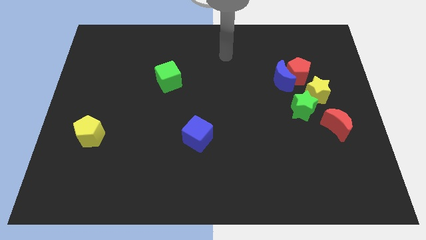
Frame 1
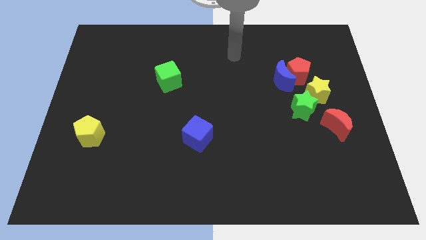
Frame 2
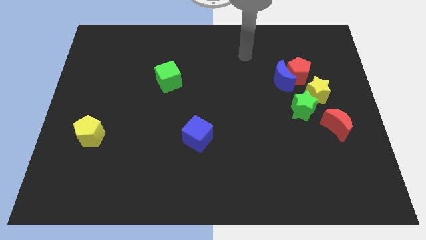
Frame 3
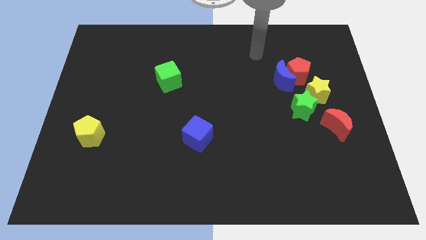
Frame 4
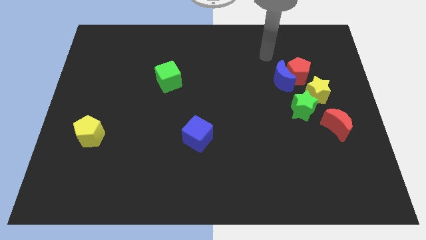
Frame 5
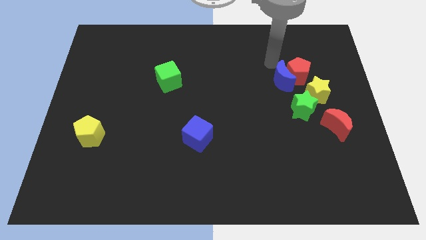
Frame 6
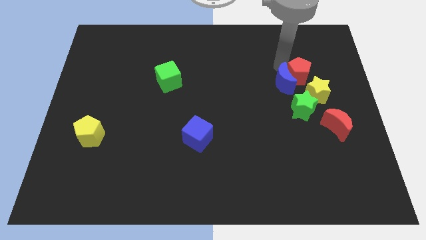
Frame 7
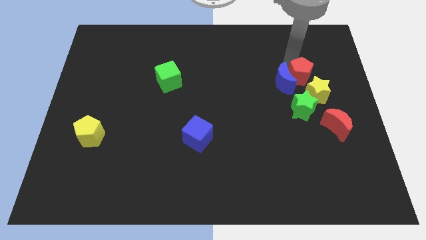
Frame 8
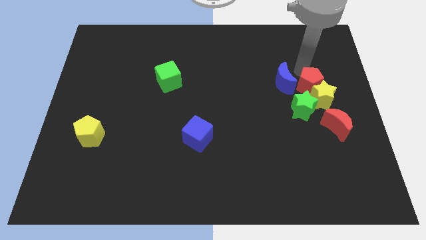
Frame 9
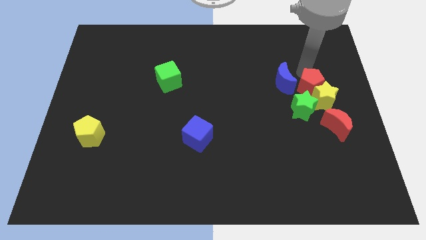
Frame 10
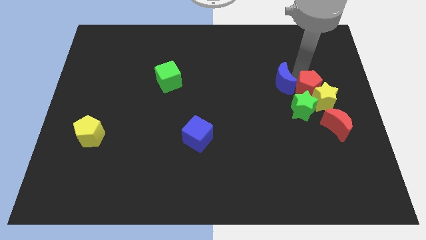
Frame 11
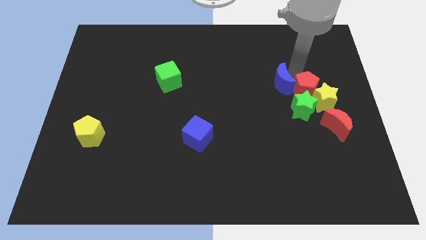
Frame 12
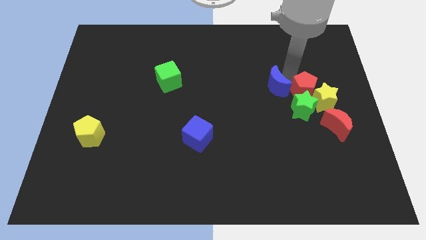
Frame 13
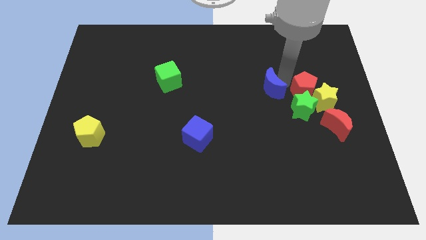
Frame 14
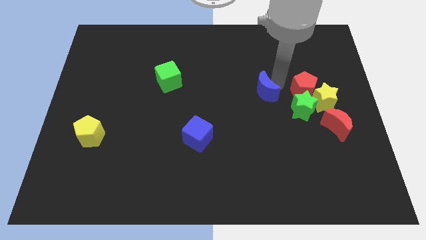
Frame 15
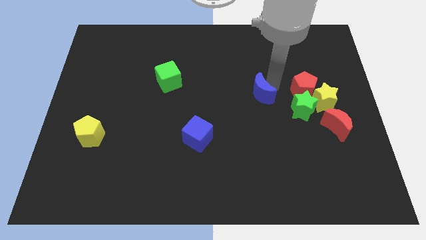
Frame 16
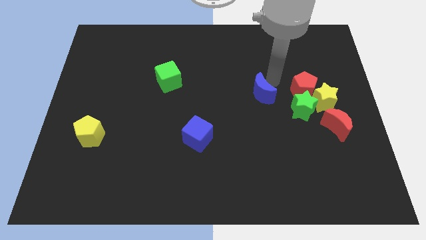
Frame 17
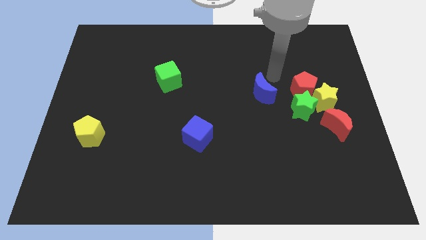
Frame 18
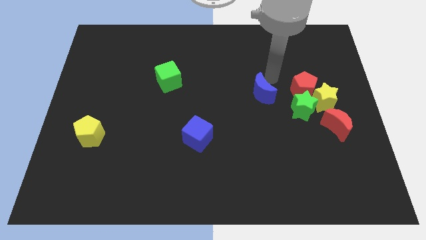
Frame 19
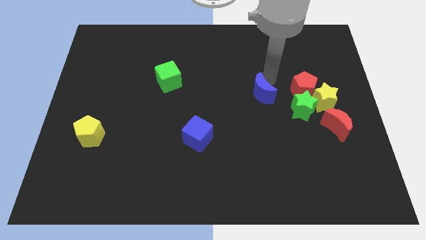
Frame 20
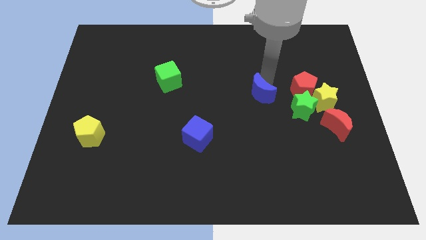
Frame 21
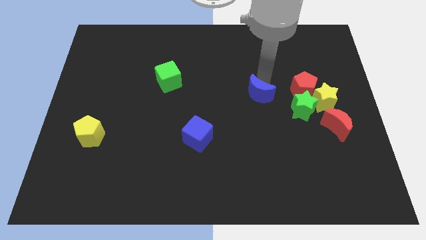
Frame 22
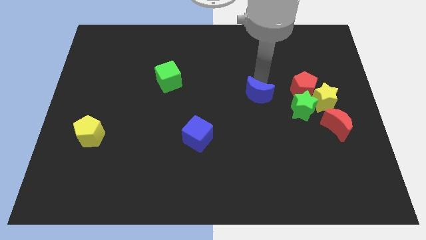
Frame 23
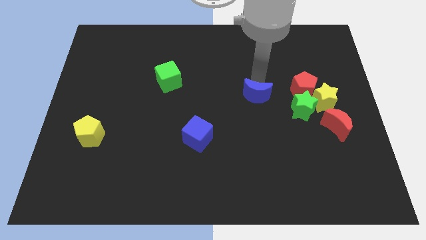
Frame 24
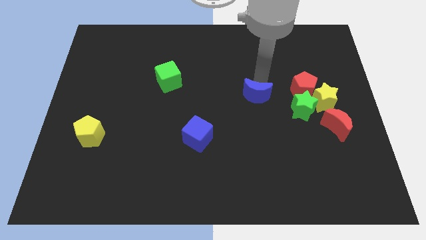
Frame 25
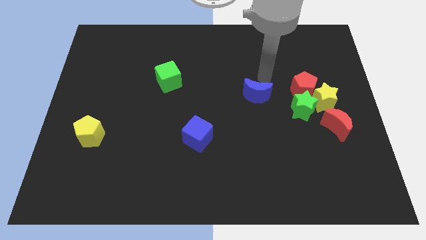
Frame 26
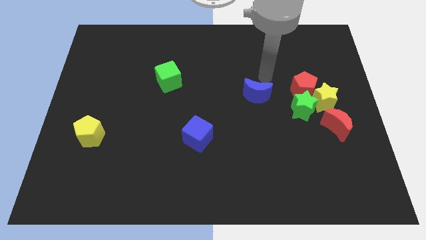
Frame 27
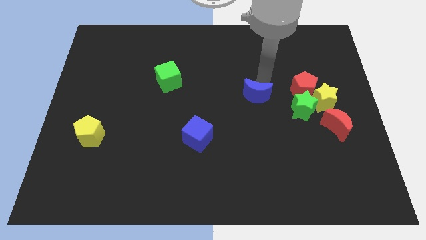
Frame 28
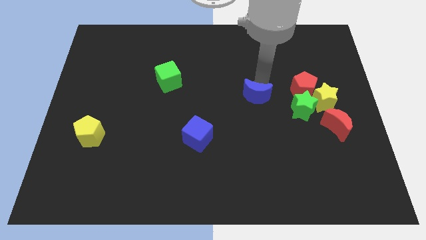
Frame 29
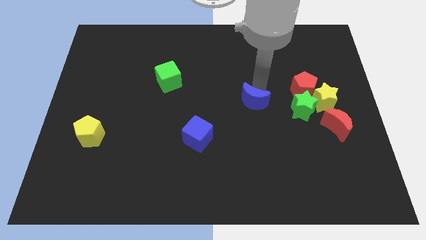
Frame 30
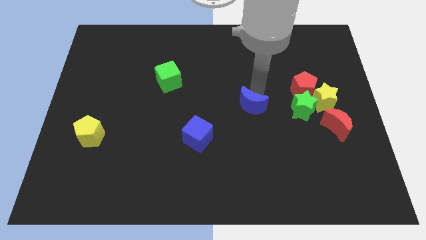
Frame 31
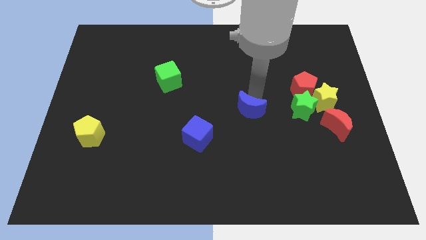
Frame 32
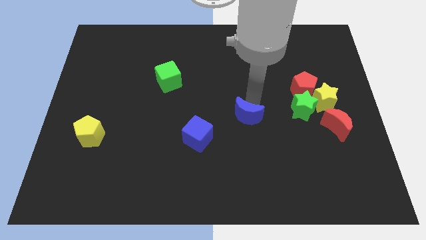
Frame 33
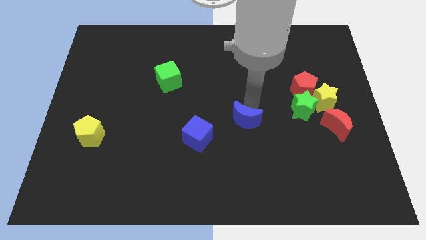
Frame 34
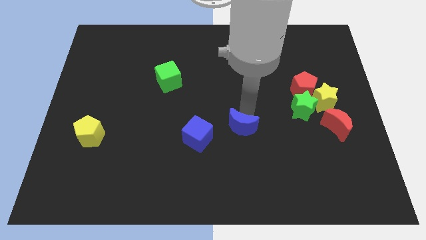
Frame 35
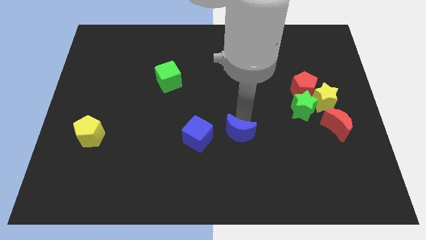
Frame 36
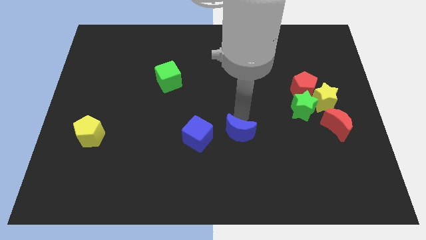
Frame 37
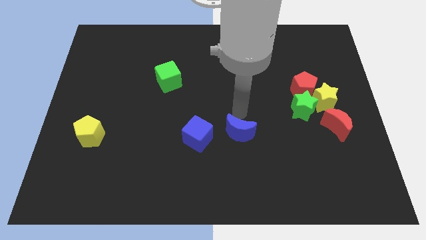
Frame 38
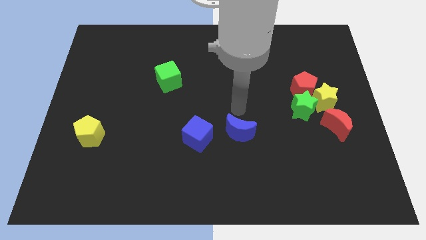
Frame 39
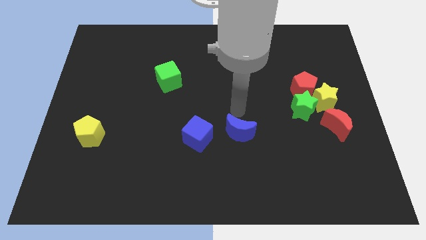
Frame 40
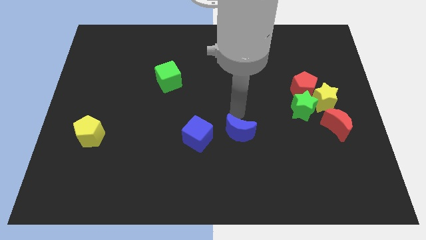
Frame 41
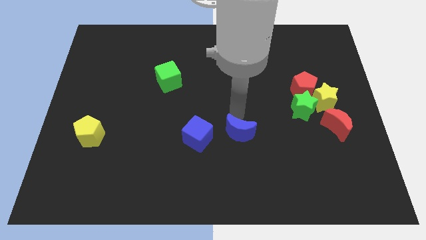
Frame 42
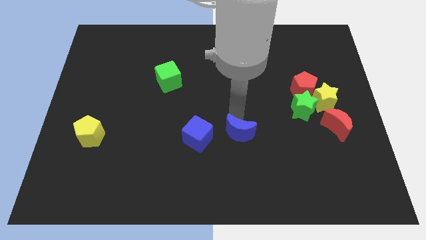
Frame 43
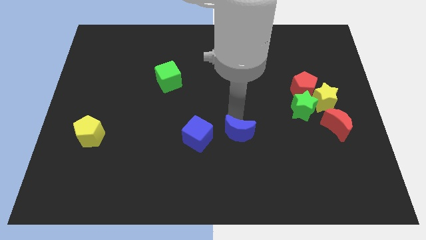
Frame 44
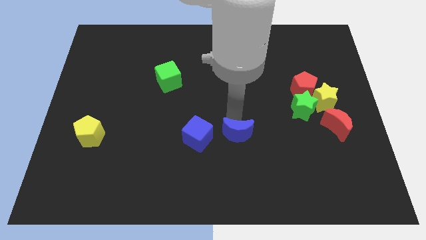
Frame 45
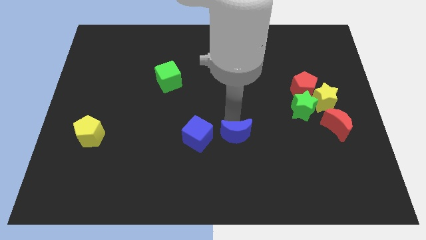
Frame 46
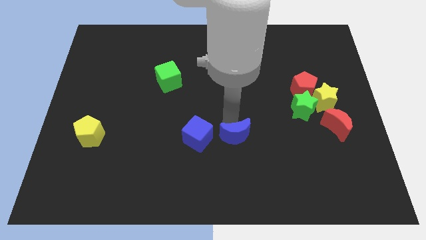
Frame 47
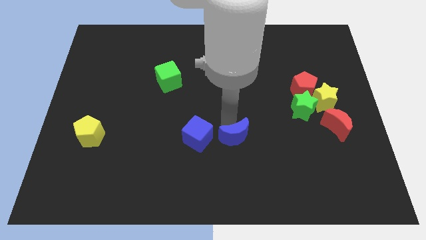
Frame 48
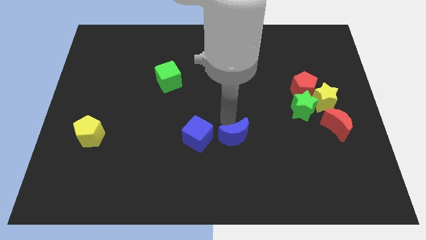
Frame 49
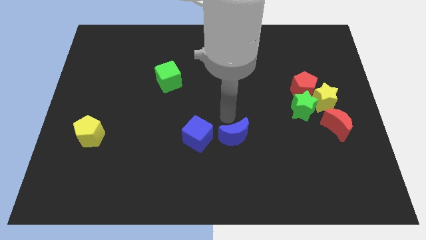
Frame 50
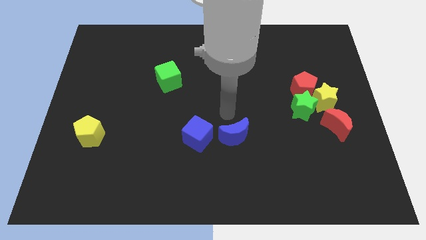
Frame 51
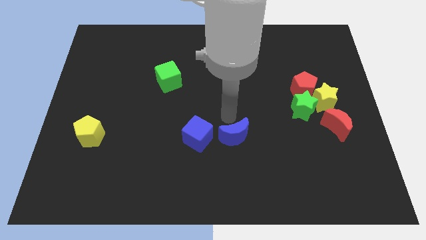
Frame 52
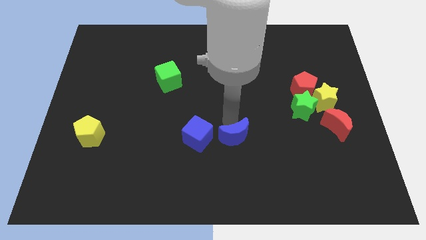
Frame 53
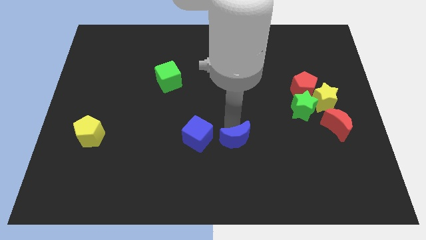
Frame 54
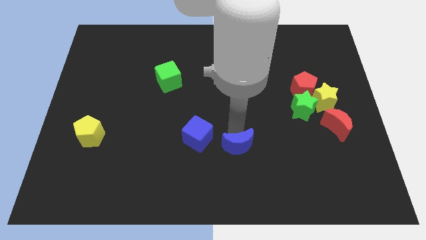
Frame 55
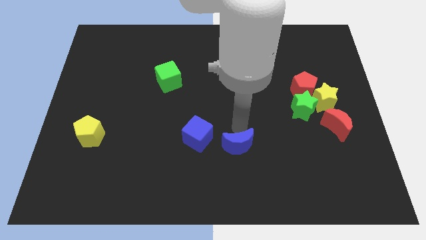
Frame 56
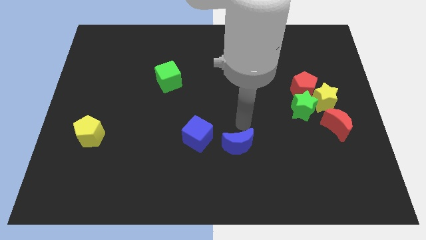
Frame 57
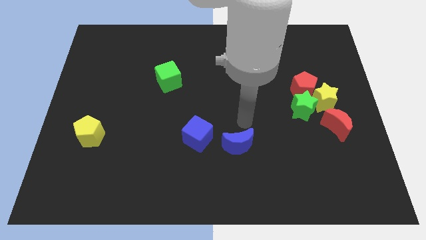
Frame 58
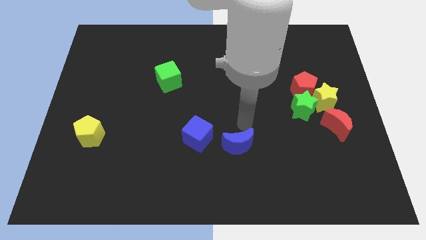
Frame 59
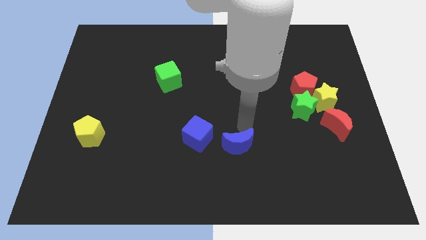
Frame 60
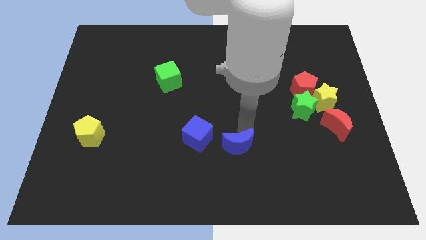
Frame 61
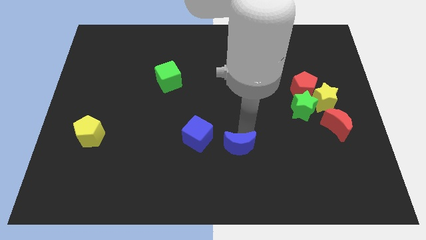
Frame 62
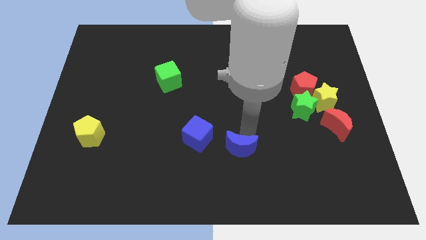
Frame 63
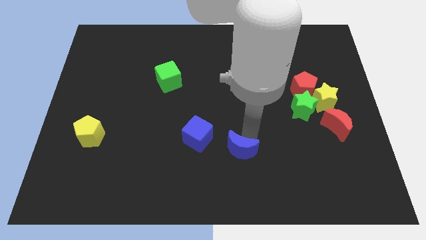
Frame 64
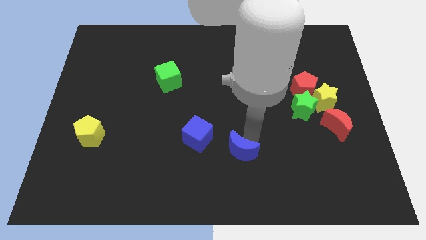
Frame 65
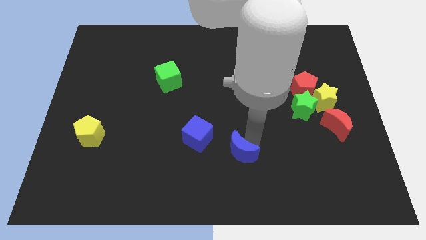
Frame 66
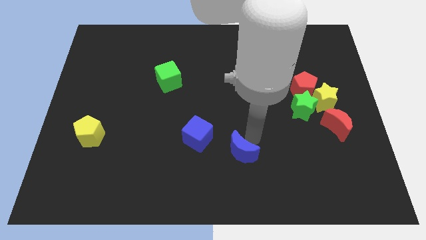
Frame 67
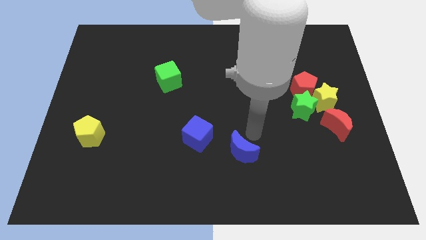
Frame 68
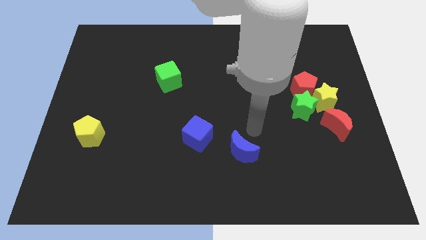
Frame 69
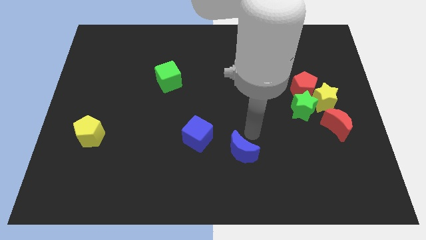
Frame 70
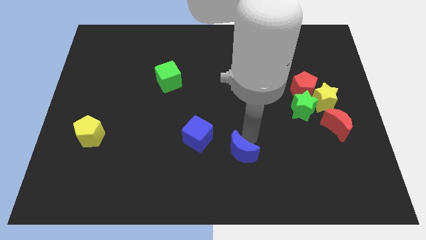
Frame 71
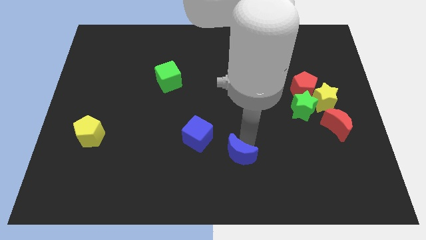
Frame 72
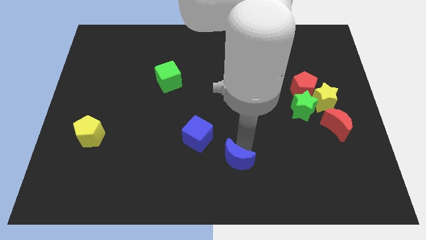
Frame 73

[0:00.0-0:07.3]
move the blue moon to the bottom
